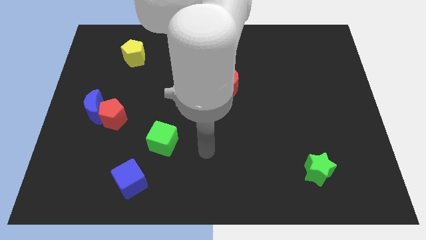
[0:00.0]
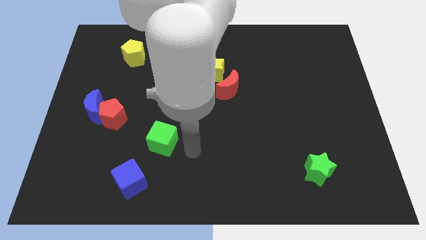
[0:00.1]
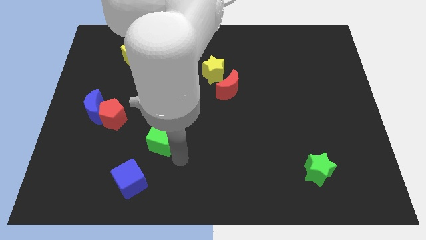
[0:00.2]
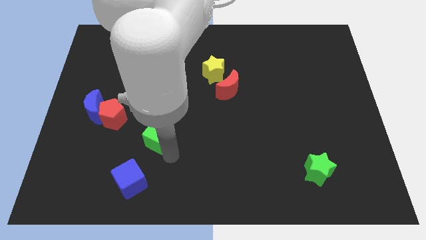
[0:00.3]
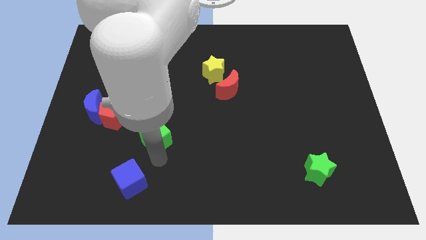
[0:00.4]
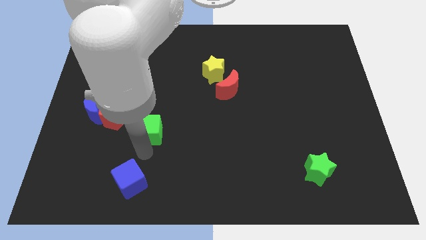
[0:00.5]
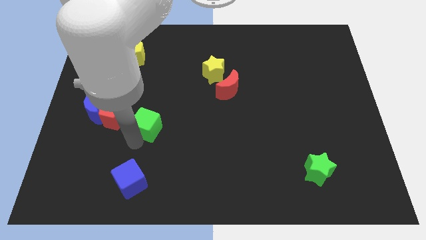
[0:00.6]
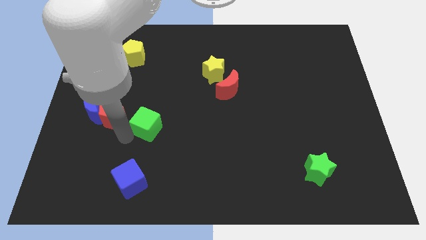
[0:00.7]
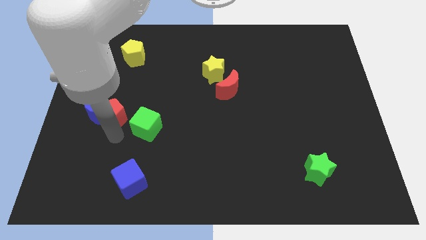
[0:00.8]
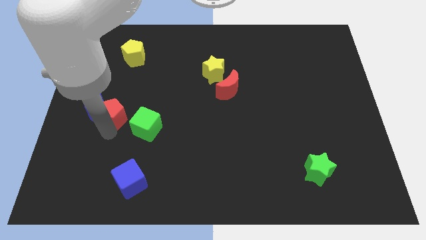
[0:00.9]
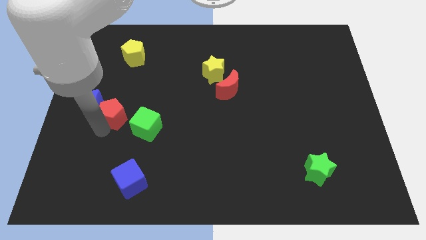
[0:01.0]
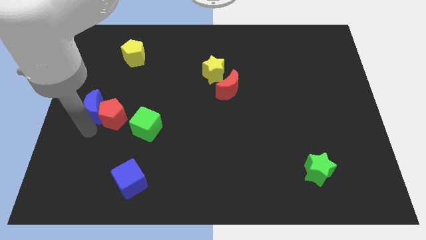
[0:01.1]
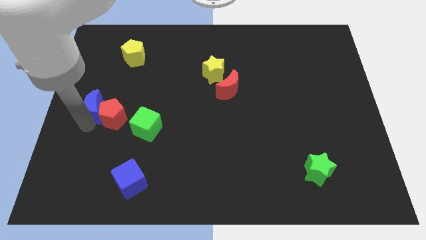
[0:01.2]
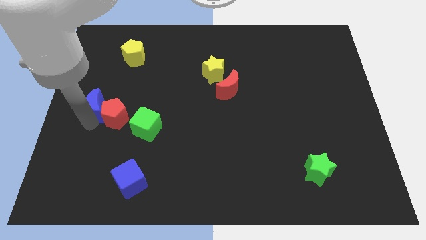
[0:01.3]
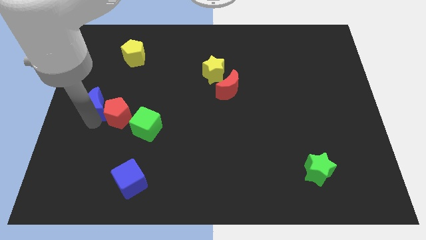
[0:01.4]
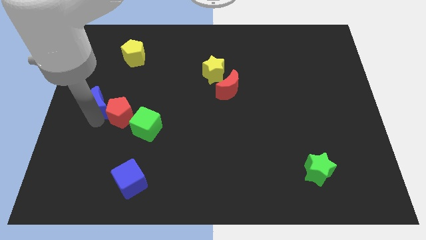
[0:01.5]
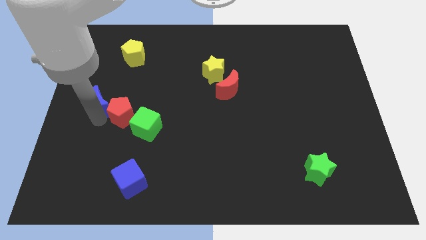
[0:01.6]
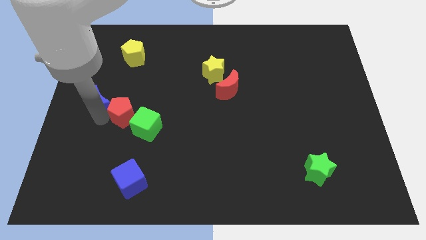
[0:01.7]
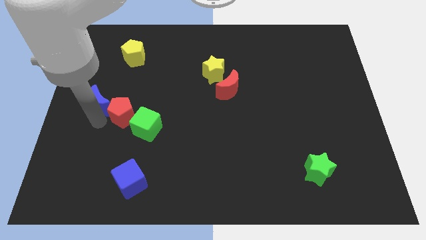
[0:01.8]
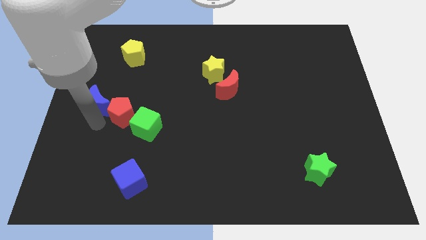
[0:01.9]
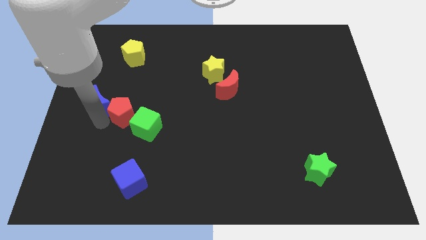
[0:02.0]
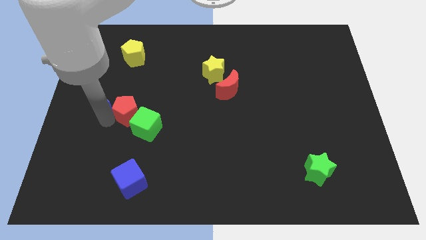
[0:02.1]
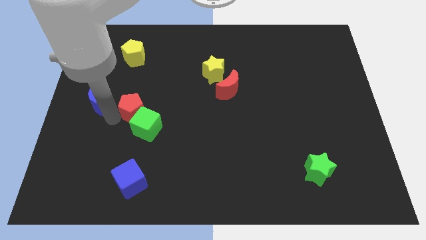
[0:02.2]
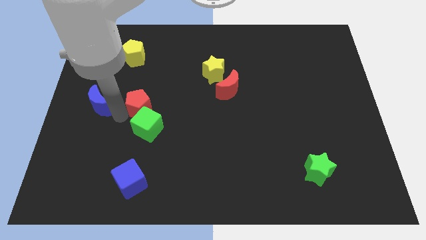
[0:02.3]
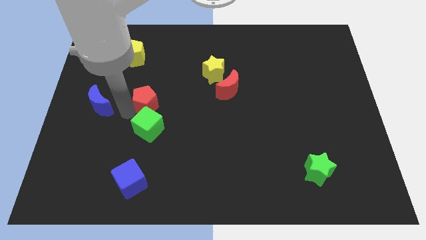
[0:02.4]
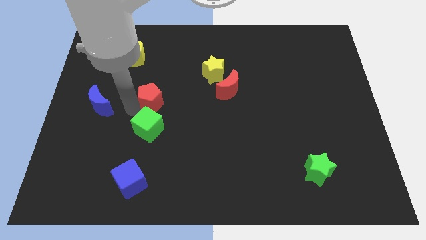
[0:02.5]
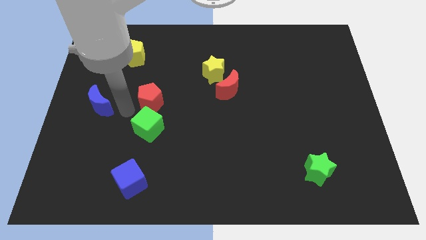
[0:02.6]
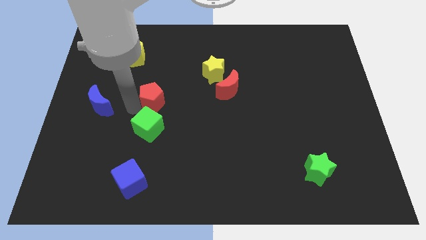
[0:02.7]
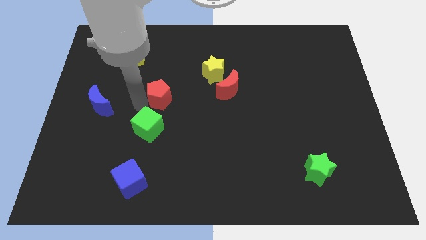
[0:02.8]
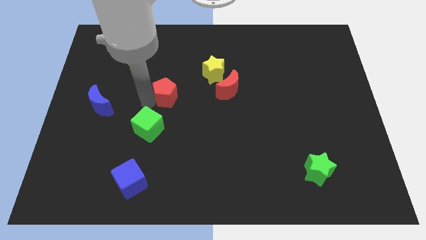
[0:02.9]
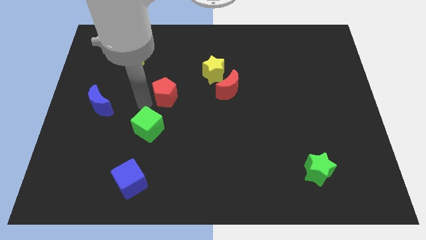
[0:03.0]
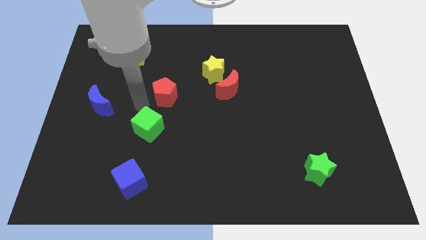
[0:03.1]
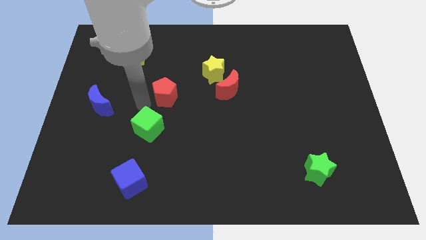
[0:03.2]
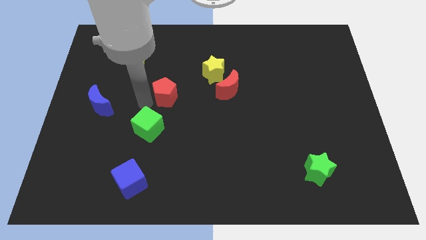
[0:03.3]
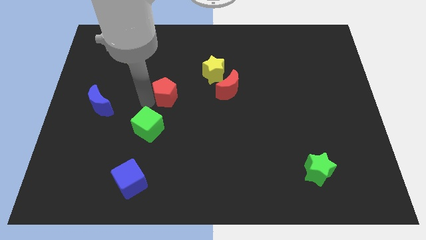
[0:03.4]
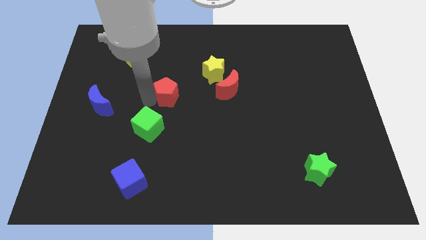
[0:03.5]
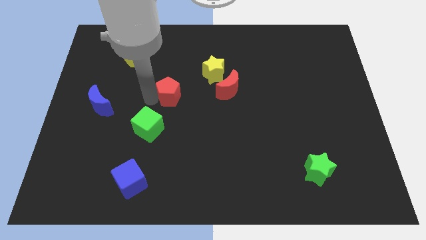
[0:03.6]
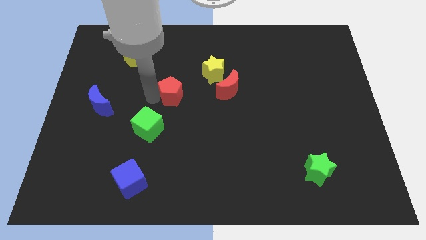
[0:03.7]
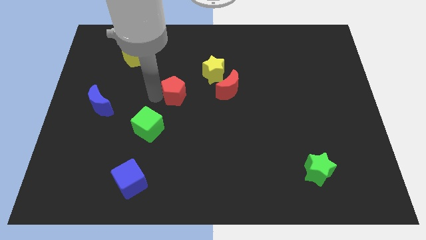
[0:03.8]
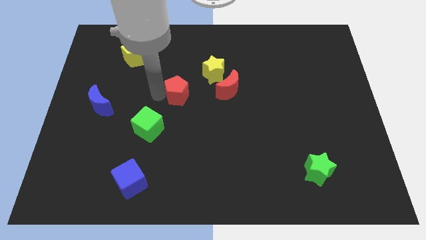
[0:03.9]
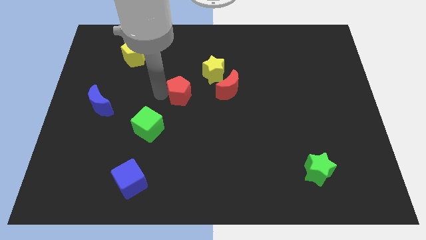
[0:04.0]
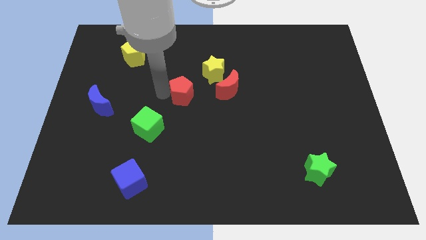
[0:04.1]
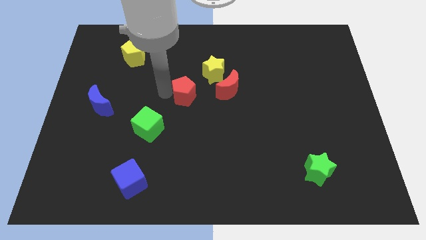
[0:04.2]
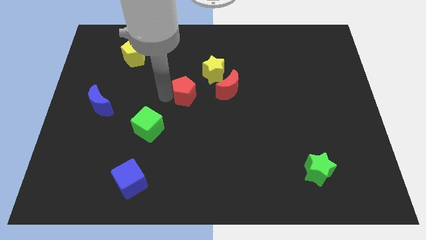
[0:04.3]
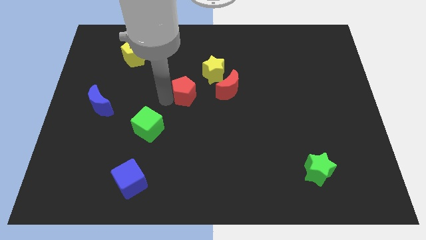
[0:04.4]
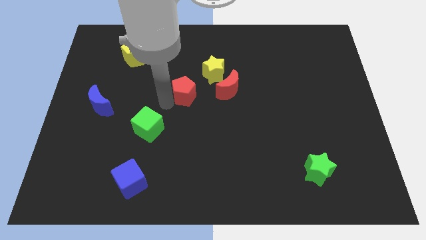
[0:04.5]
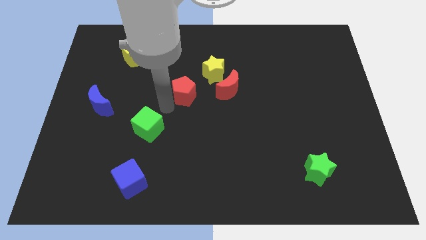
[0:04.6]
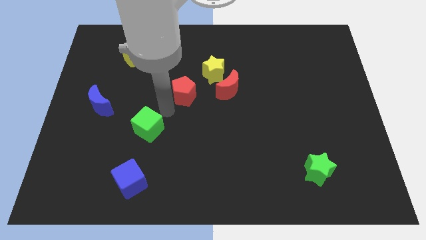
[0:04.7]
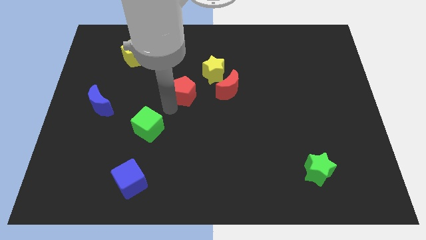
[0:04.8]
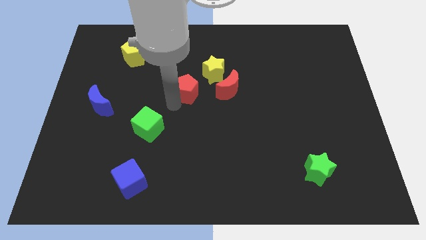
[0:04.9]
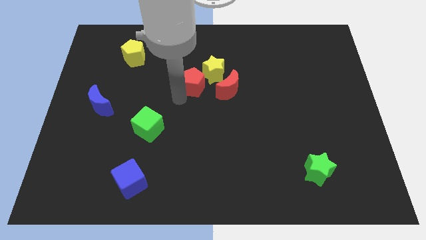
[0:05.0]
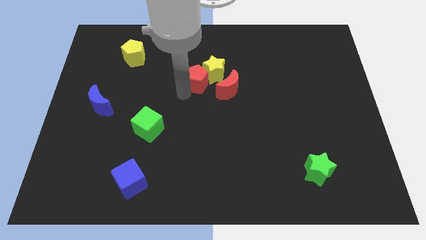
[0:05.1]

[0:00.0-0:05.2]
slide the red pentagon next to the yellow star

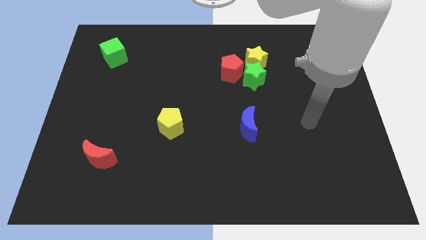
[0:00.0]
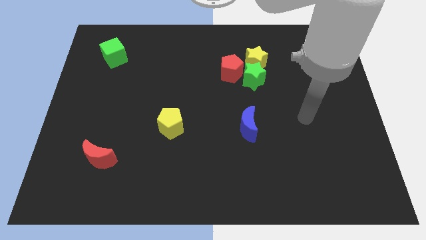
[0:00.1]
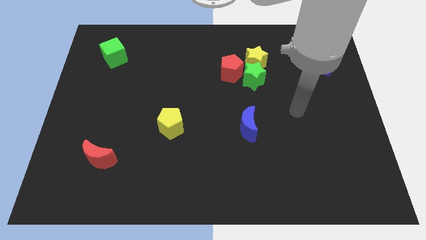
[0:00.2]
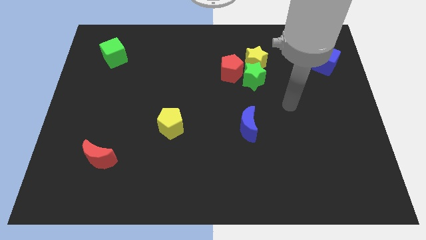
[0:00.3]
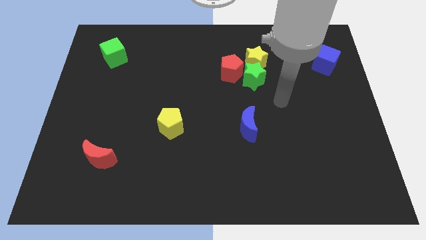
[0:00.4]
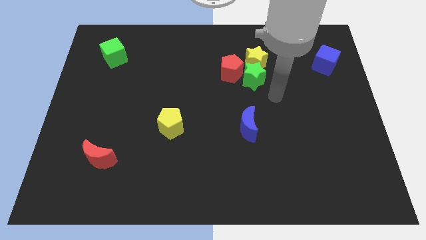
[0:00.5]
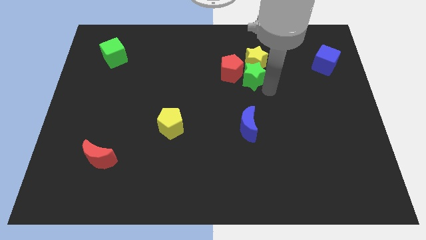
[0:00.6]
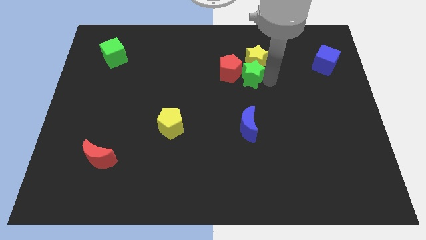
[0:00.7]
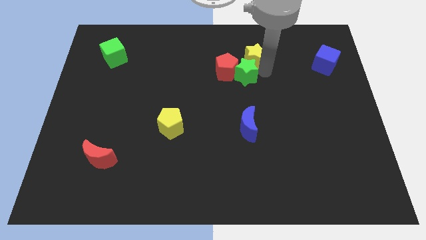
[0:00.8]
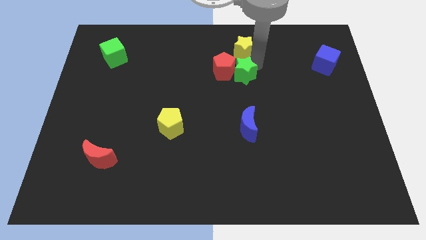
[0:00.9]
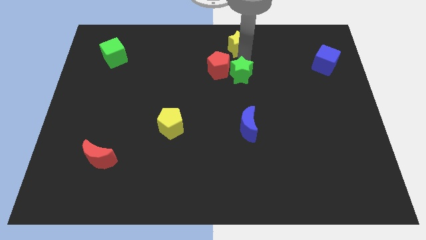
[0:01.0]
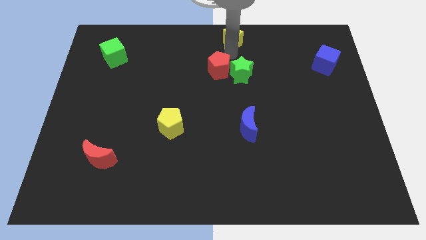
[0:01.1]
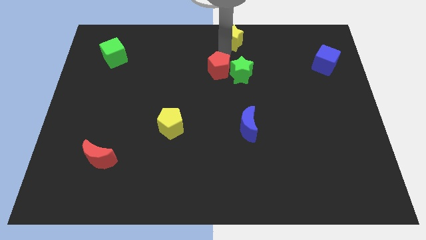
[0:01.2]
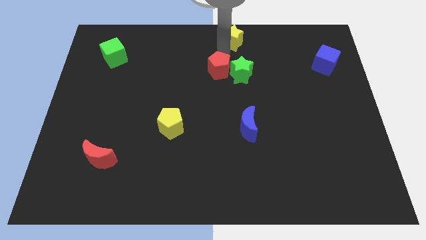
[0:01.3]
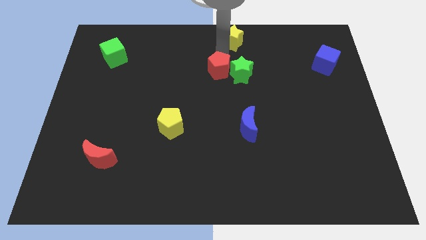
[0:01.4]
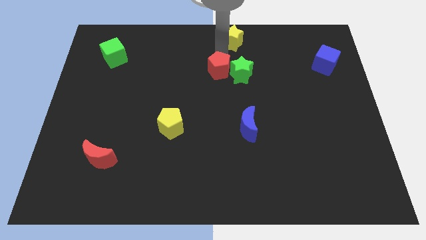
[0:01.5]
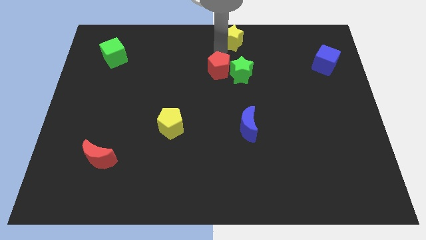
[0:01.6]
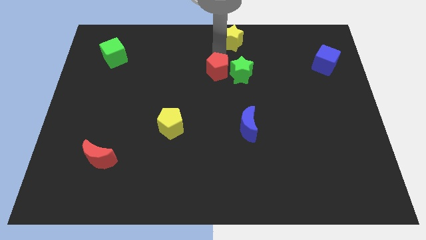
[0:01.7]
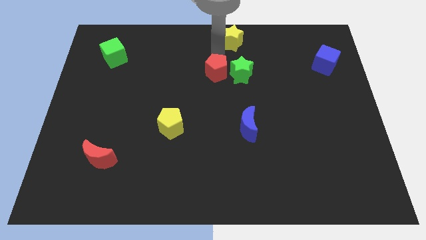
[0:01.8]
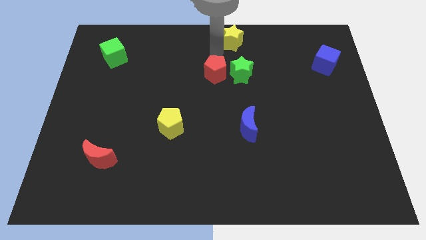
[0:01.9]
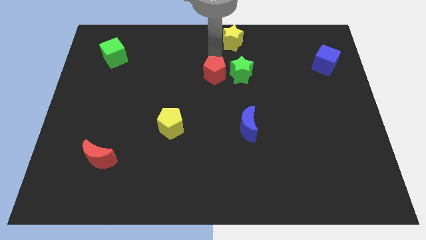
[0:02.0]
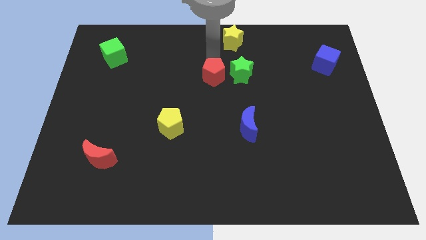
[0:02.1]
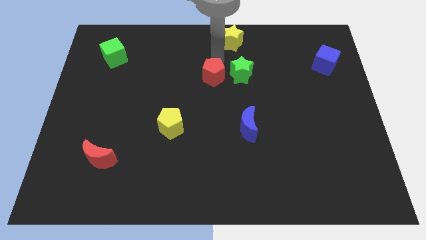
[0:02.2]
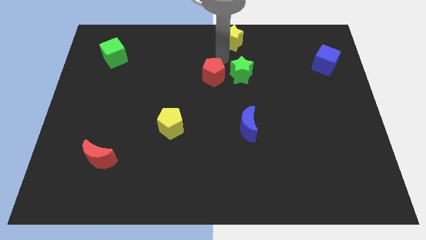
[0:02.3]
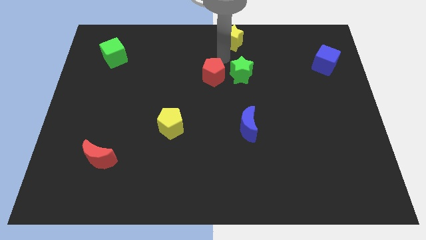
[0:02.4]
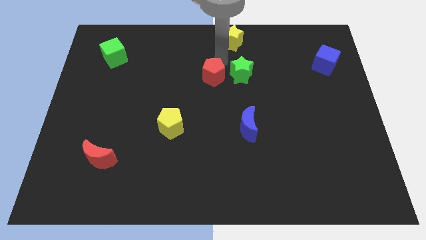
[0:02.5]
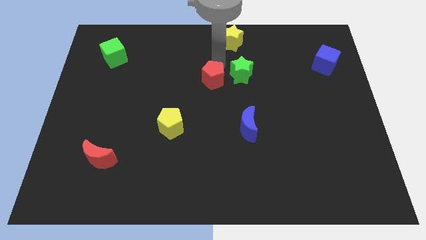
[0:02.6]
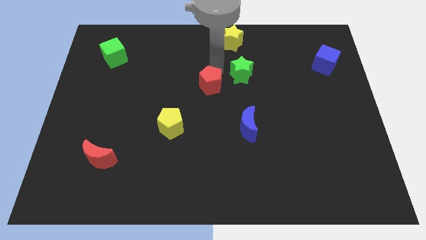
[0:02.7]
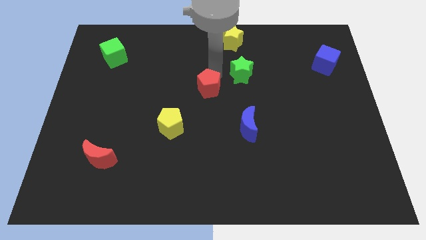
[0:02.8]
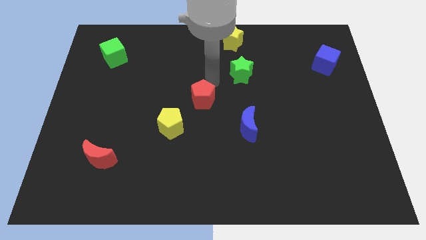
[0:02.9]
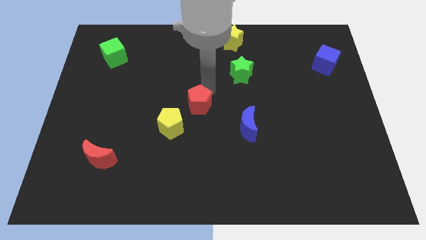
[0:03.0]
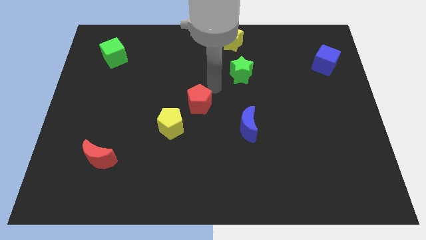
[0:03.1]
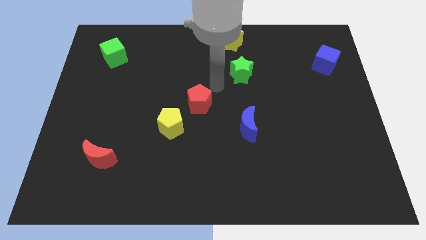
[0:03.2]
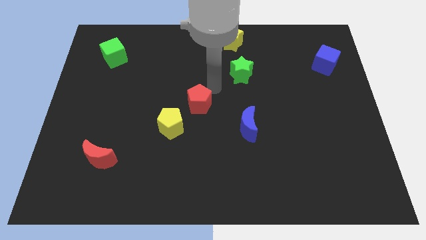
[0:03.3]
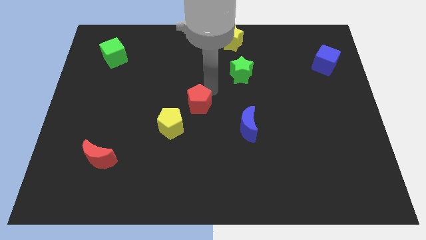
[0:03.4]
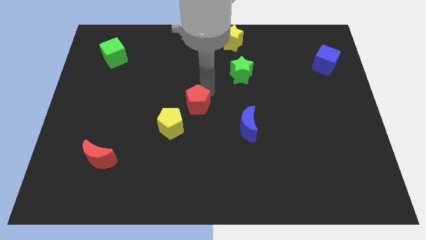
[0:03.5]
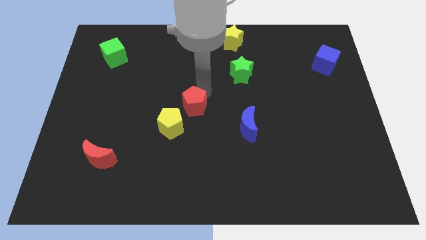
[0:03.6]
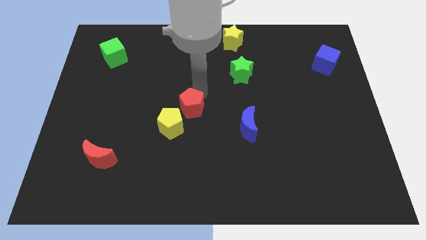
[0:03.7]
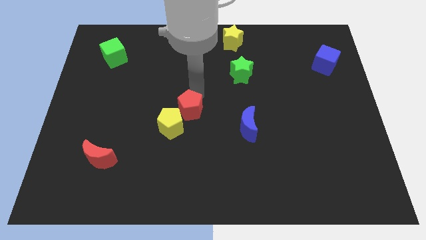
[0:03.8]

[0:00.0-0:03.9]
move the red pentagon towards the yellow pentagon
